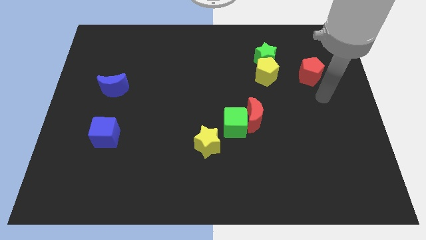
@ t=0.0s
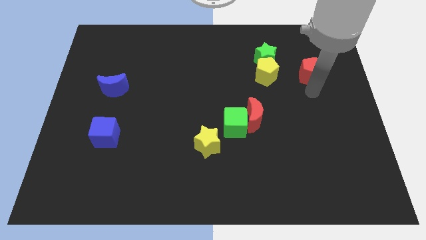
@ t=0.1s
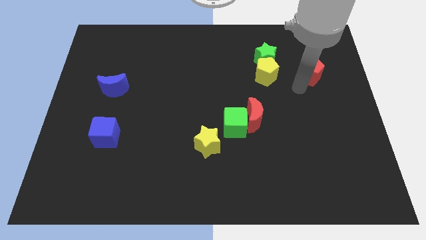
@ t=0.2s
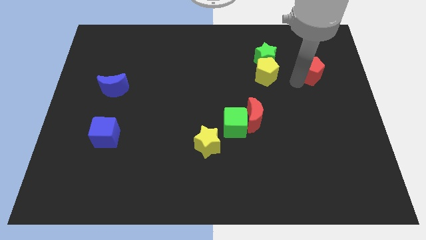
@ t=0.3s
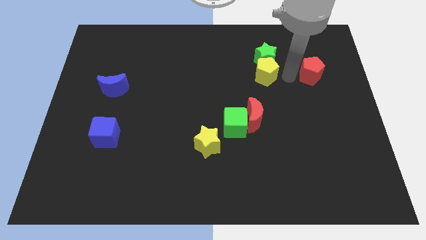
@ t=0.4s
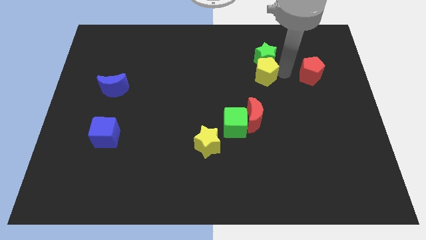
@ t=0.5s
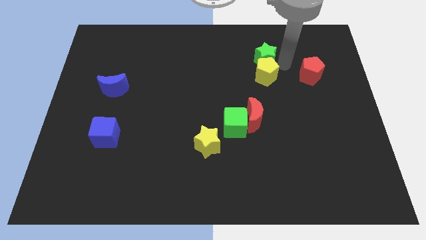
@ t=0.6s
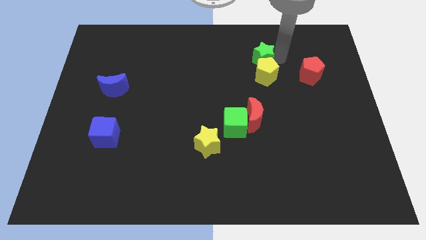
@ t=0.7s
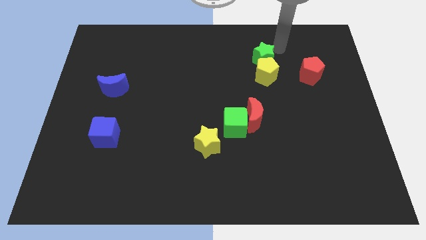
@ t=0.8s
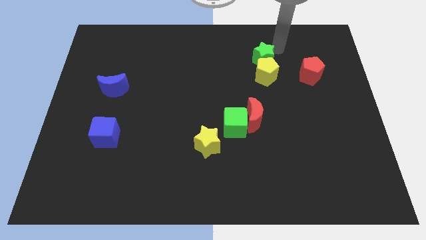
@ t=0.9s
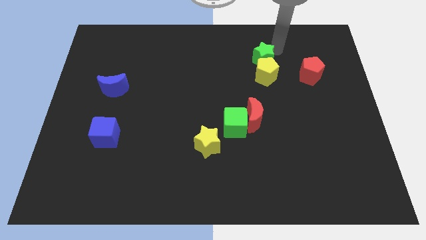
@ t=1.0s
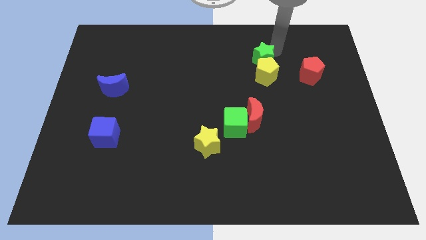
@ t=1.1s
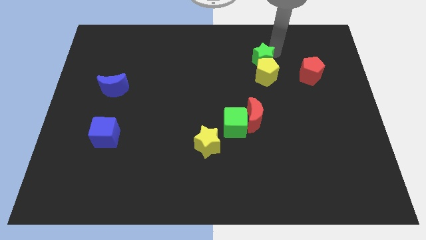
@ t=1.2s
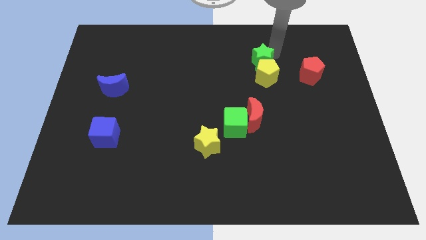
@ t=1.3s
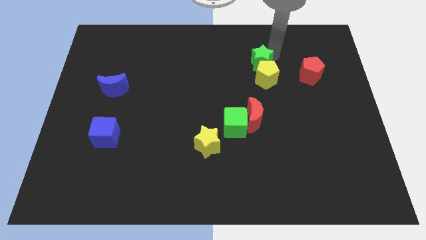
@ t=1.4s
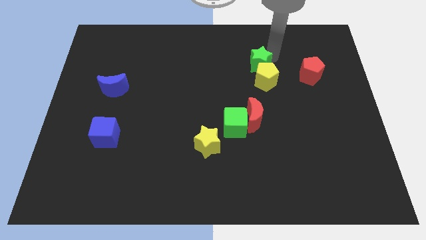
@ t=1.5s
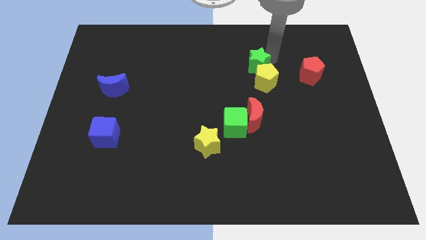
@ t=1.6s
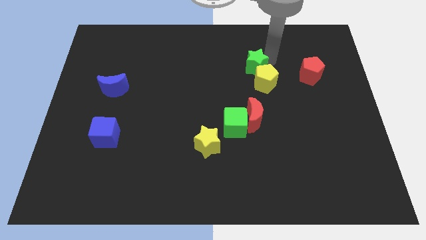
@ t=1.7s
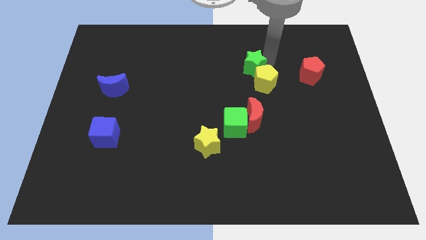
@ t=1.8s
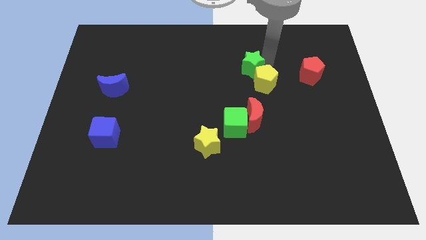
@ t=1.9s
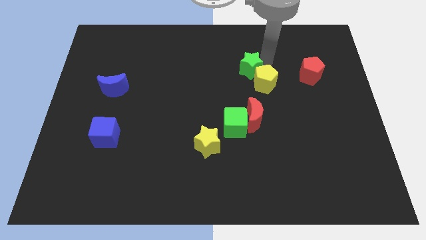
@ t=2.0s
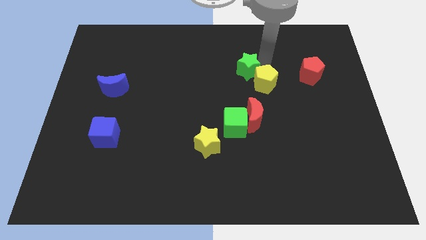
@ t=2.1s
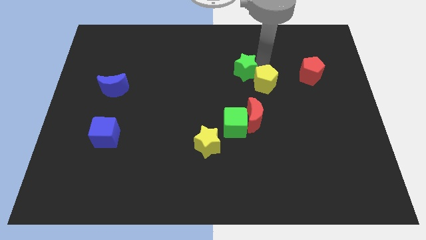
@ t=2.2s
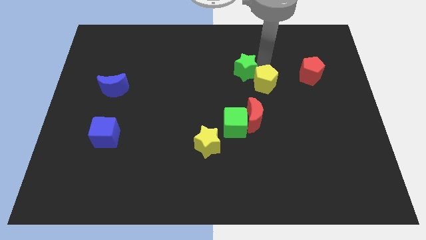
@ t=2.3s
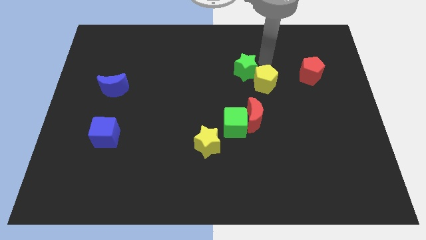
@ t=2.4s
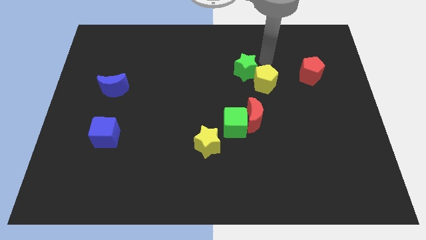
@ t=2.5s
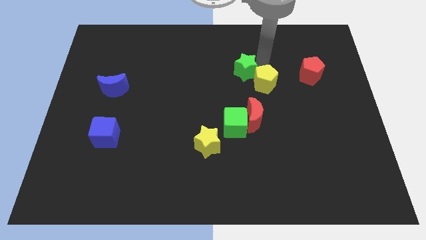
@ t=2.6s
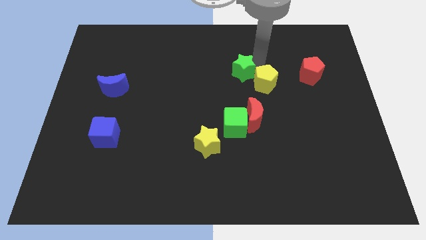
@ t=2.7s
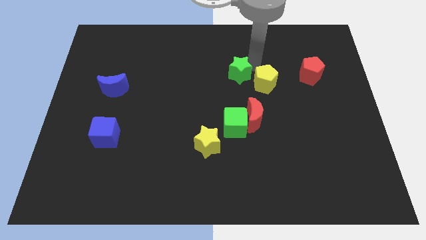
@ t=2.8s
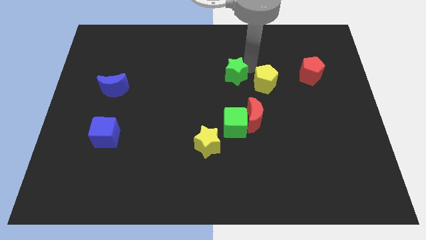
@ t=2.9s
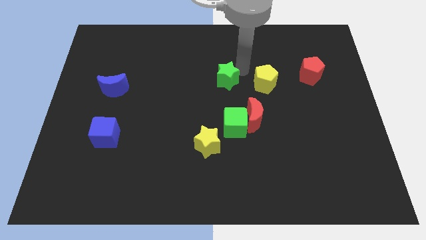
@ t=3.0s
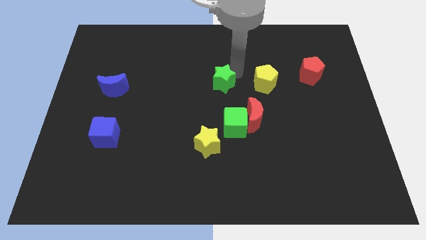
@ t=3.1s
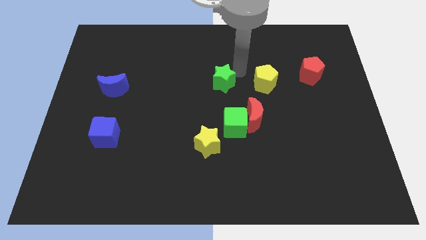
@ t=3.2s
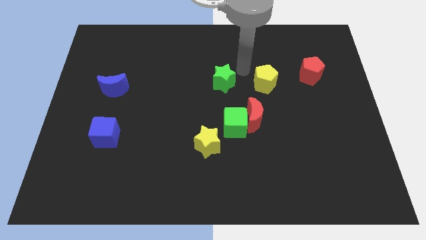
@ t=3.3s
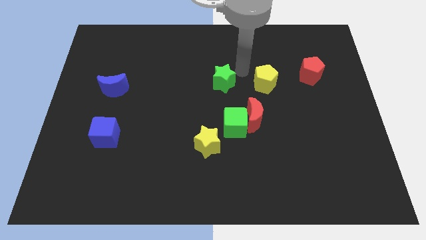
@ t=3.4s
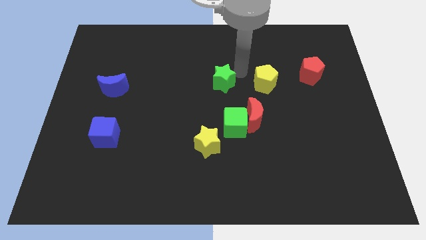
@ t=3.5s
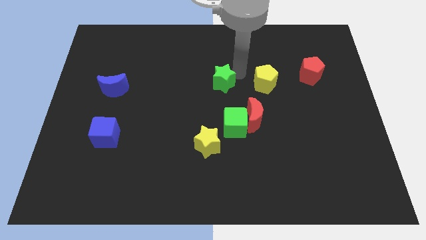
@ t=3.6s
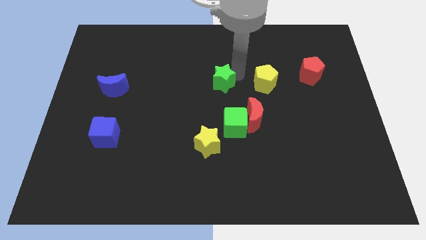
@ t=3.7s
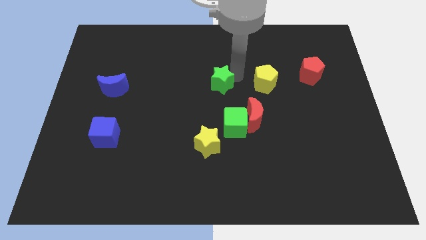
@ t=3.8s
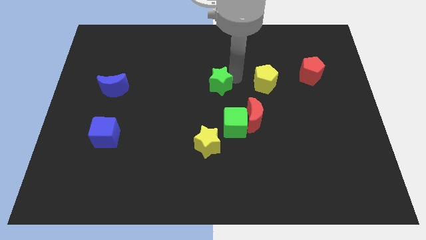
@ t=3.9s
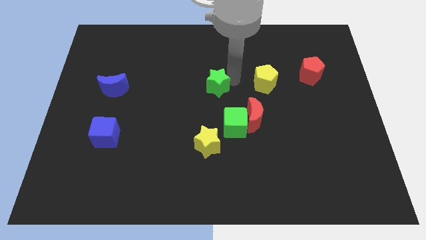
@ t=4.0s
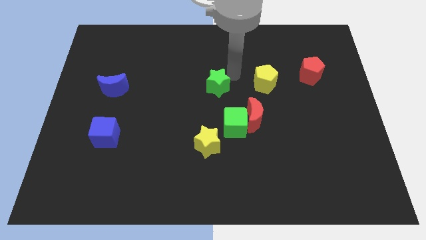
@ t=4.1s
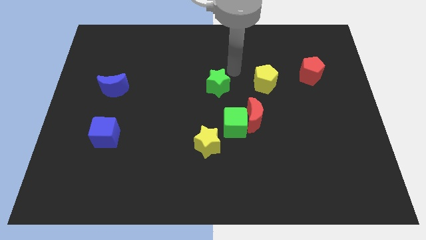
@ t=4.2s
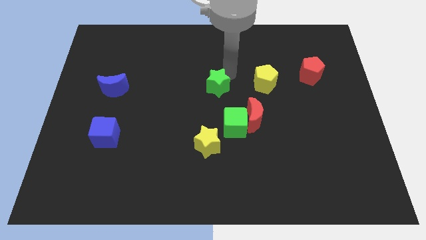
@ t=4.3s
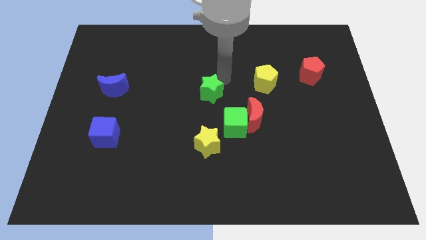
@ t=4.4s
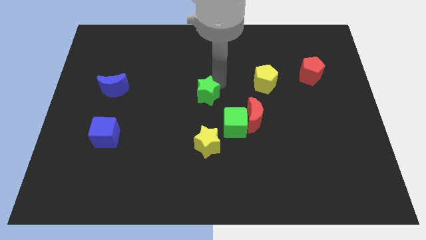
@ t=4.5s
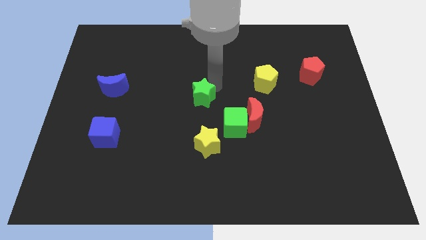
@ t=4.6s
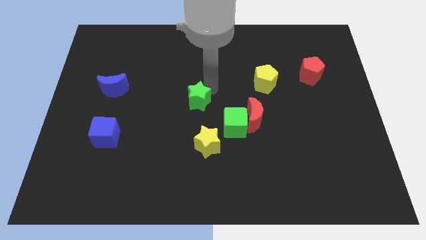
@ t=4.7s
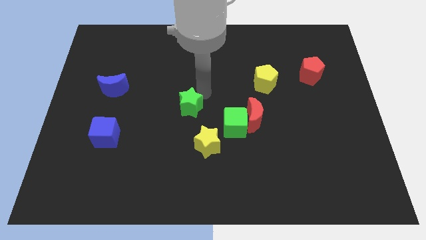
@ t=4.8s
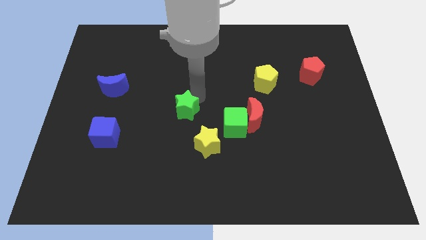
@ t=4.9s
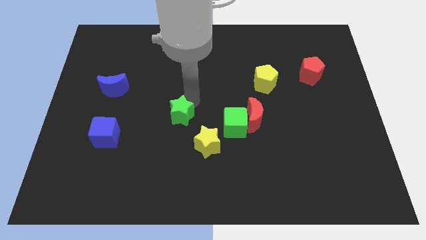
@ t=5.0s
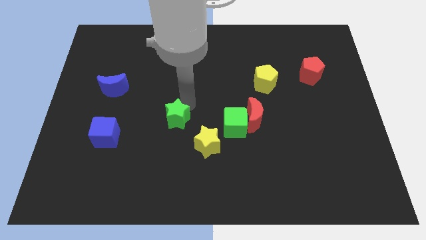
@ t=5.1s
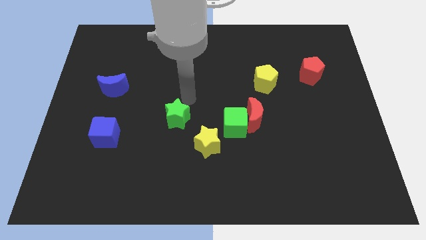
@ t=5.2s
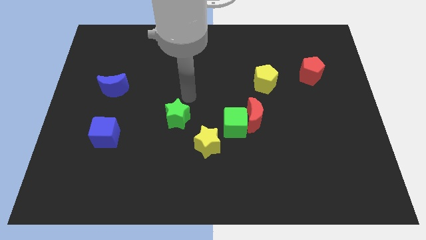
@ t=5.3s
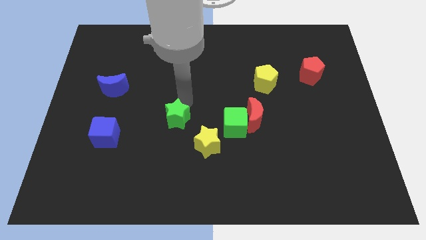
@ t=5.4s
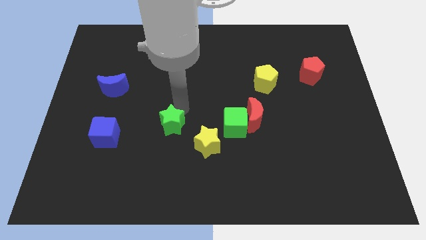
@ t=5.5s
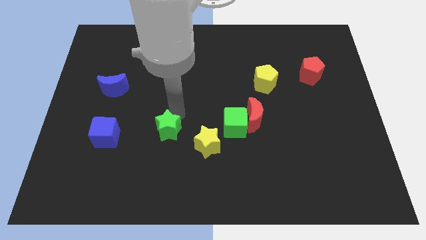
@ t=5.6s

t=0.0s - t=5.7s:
push the green star just left of the yellow star

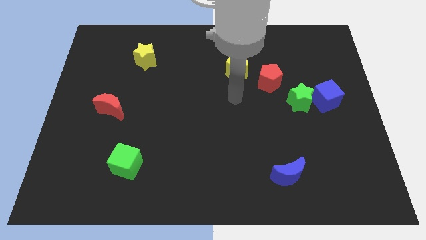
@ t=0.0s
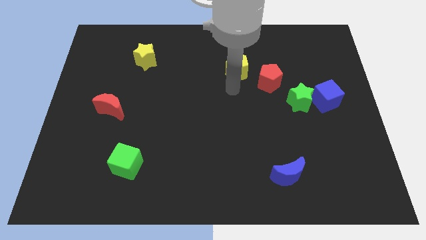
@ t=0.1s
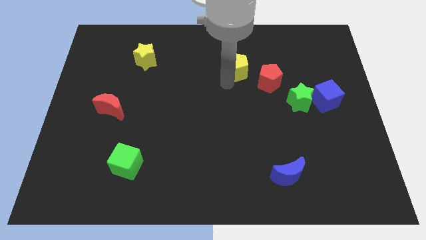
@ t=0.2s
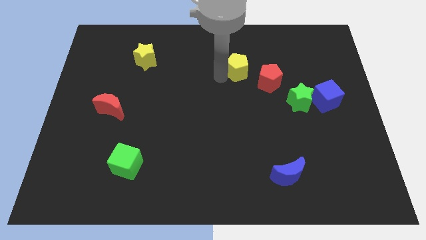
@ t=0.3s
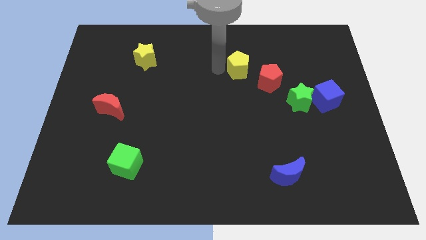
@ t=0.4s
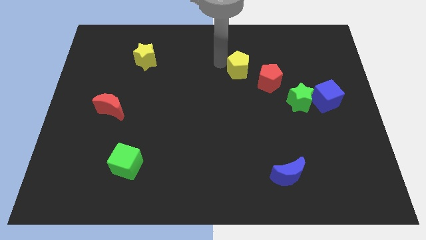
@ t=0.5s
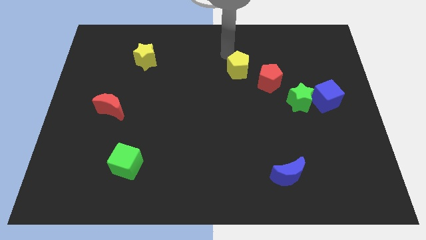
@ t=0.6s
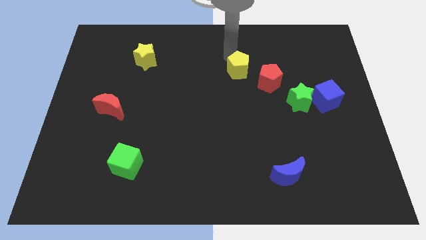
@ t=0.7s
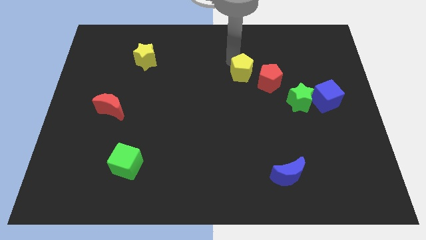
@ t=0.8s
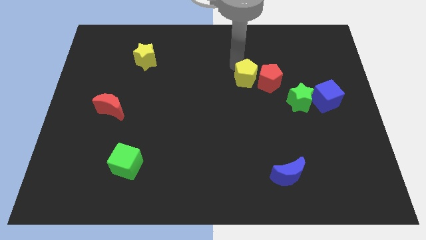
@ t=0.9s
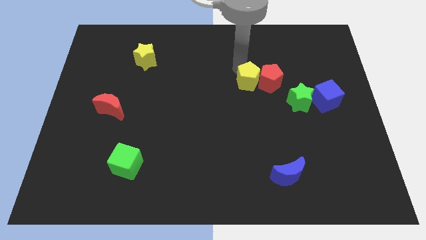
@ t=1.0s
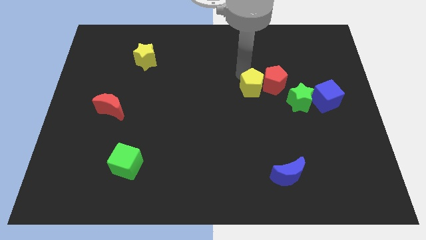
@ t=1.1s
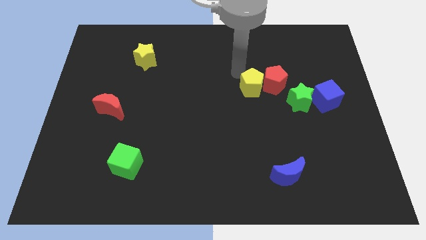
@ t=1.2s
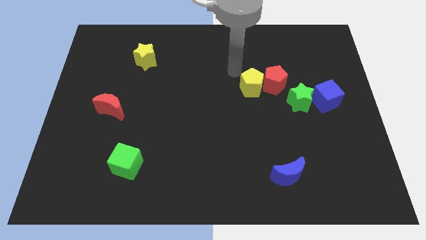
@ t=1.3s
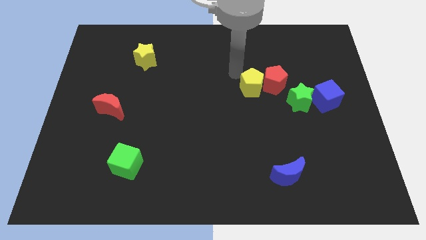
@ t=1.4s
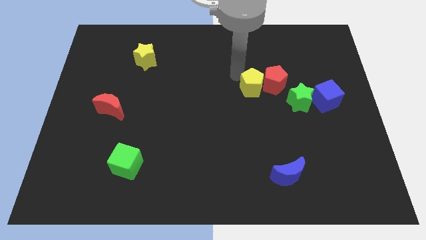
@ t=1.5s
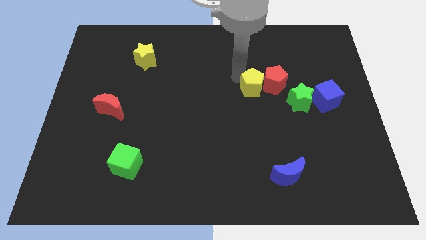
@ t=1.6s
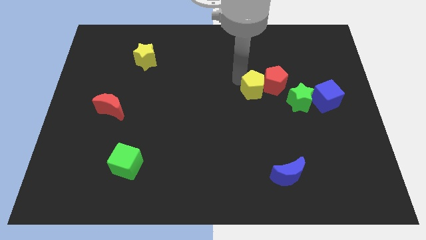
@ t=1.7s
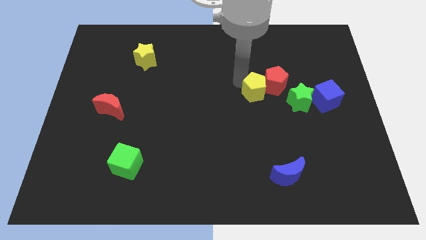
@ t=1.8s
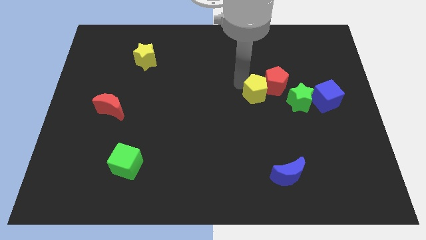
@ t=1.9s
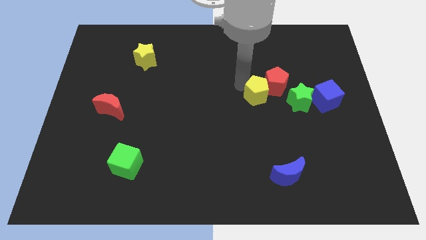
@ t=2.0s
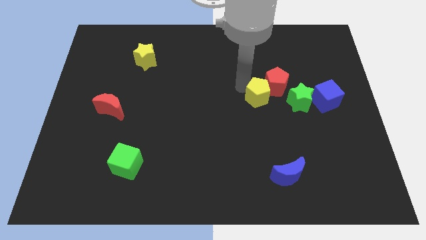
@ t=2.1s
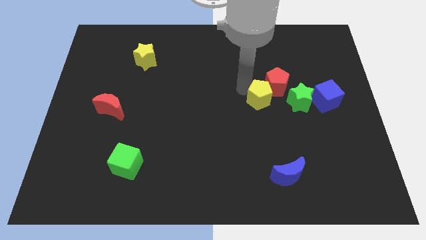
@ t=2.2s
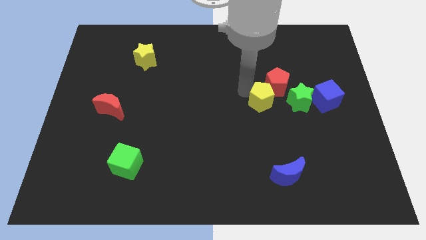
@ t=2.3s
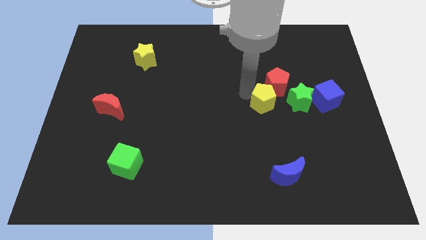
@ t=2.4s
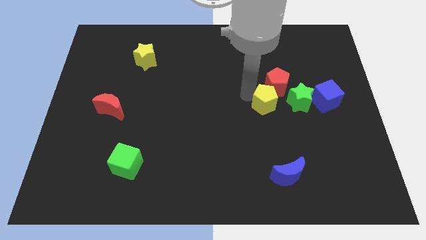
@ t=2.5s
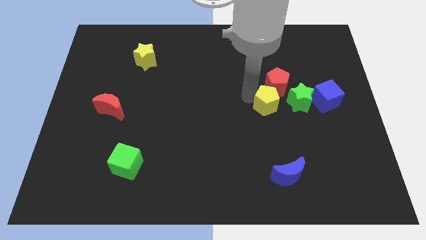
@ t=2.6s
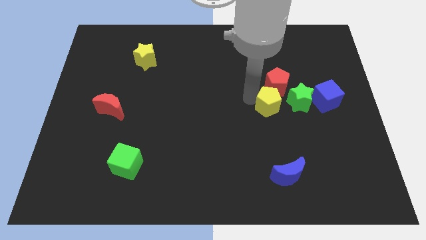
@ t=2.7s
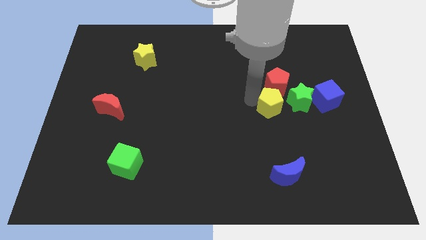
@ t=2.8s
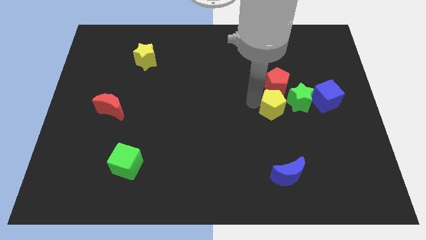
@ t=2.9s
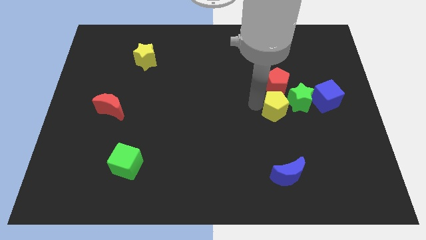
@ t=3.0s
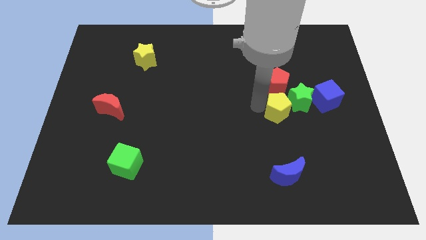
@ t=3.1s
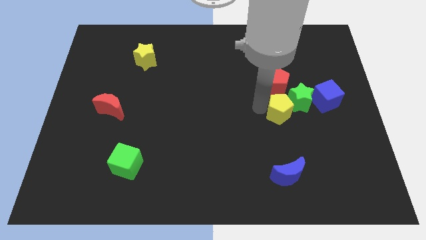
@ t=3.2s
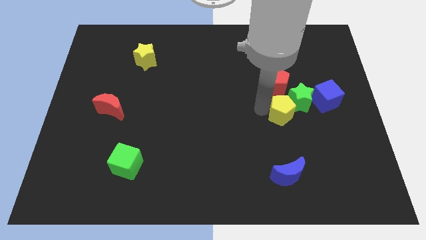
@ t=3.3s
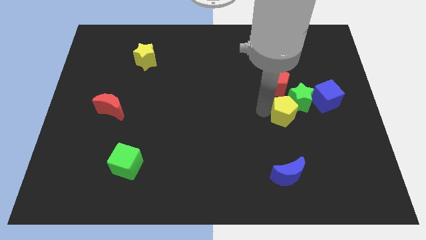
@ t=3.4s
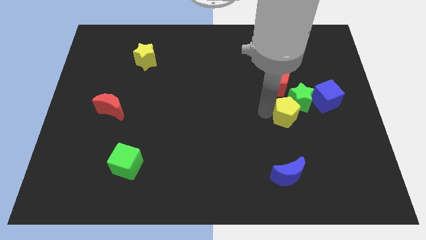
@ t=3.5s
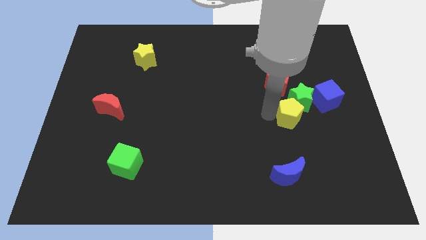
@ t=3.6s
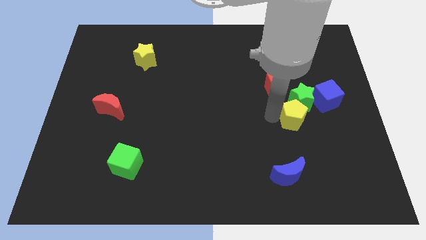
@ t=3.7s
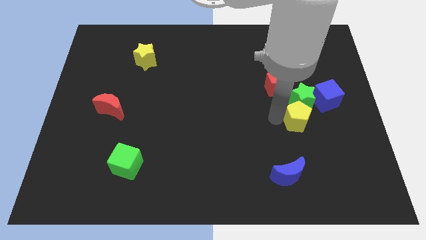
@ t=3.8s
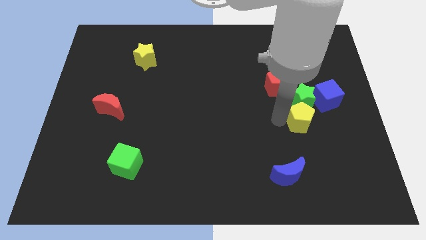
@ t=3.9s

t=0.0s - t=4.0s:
move the yellow pentagon to the bottom right of the green star
